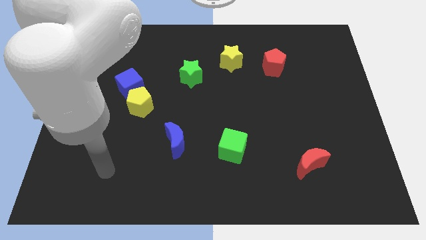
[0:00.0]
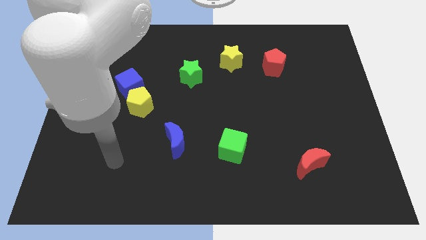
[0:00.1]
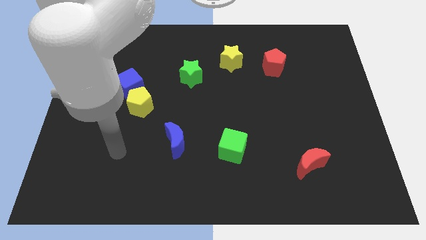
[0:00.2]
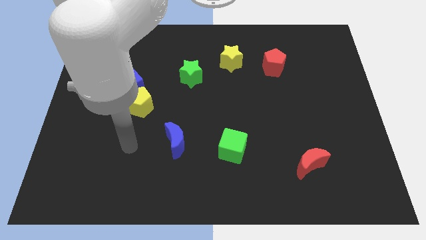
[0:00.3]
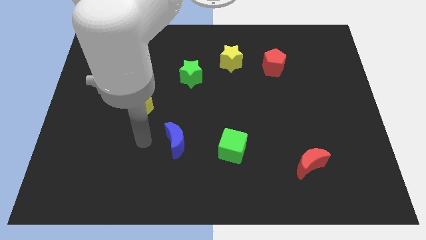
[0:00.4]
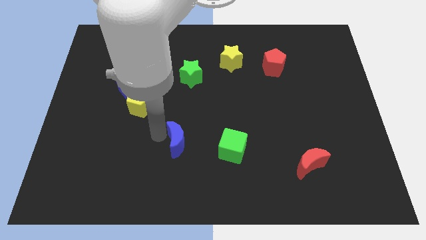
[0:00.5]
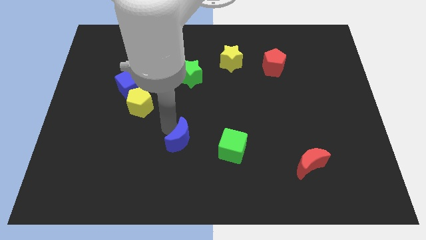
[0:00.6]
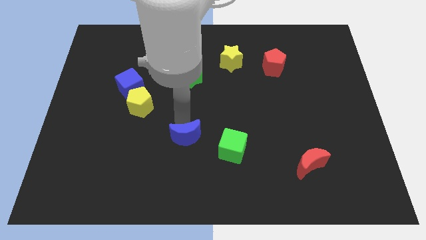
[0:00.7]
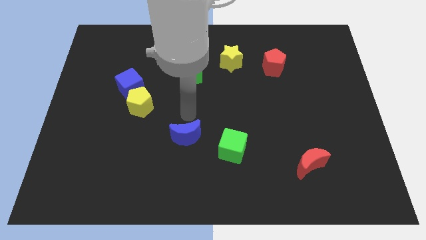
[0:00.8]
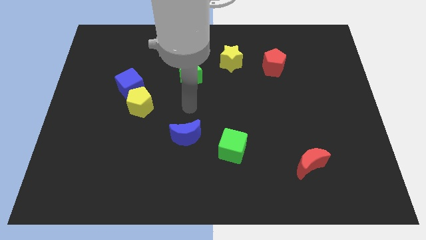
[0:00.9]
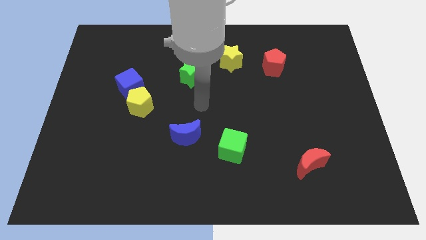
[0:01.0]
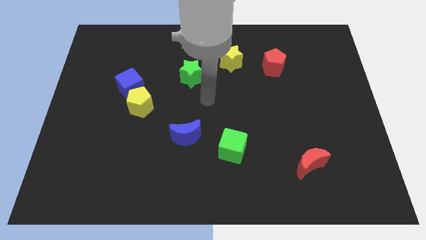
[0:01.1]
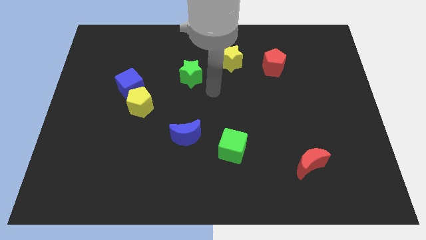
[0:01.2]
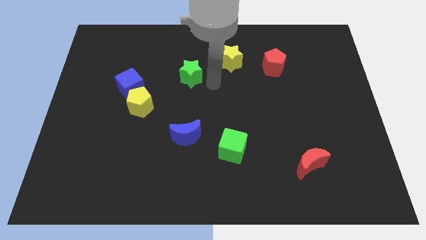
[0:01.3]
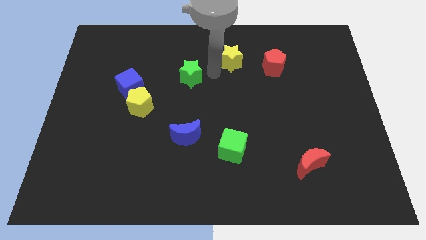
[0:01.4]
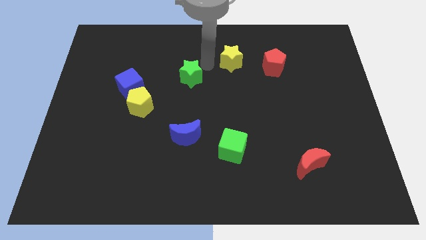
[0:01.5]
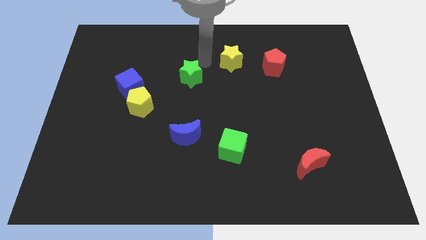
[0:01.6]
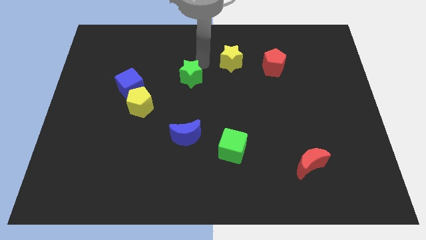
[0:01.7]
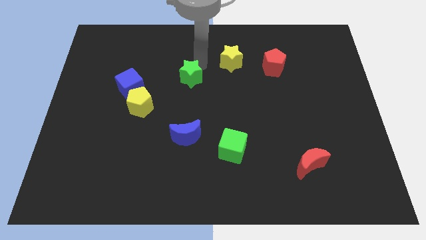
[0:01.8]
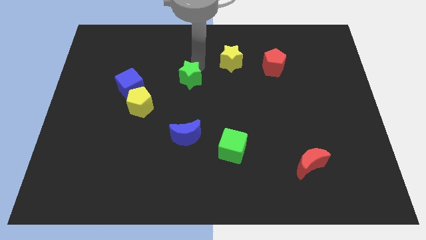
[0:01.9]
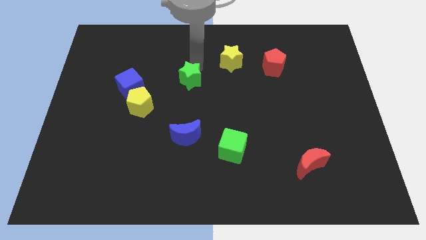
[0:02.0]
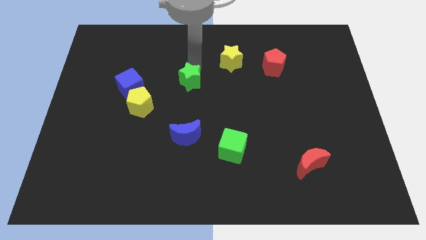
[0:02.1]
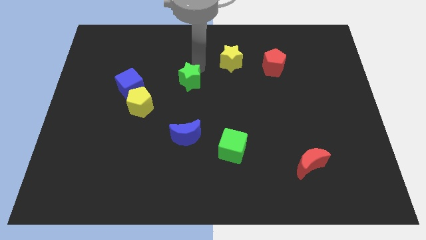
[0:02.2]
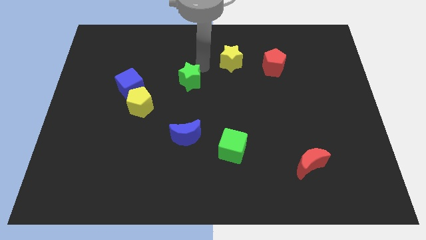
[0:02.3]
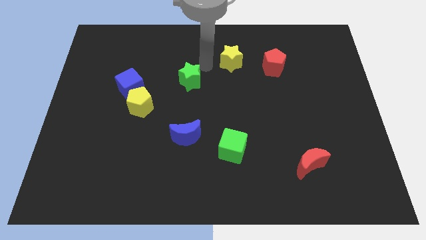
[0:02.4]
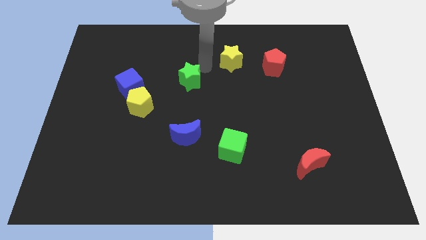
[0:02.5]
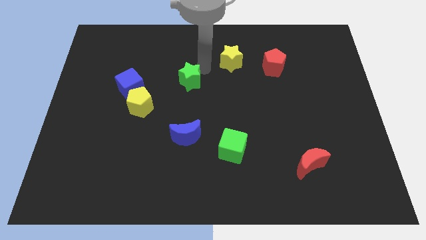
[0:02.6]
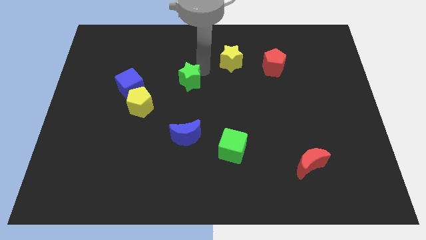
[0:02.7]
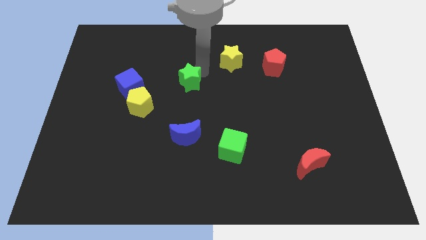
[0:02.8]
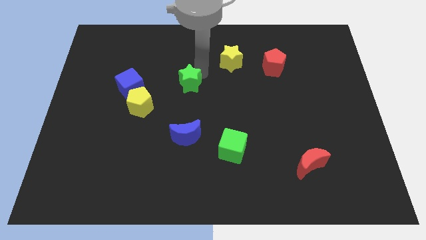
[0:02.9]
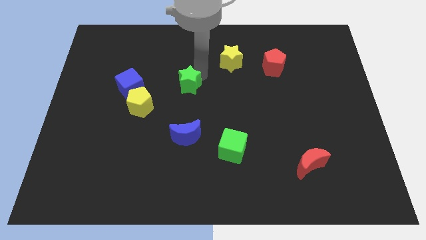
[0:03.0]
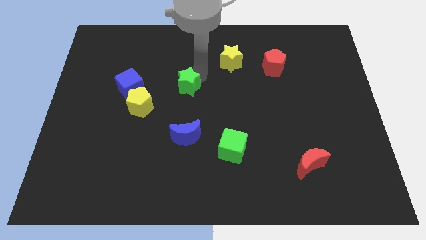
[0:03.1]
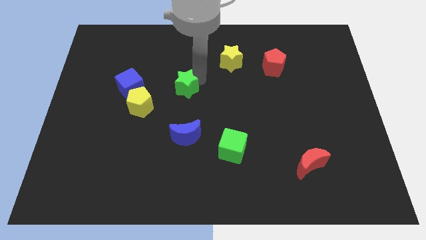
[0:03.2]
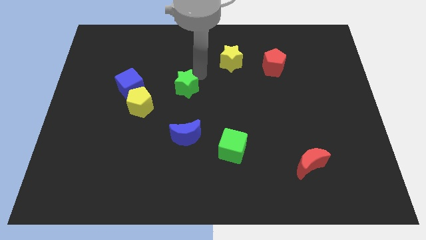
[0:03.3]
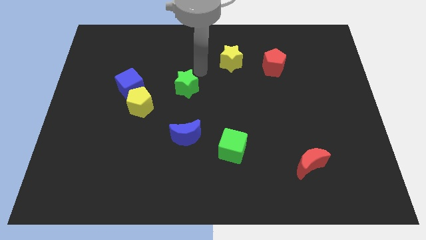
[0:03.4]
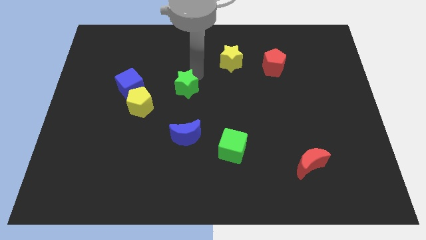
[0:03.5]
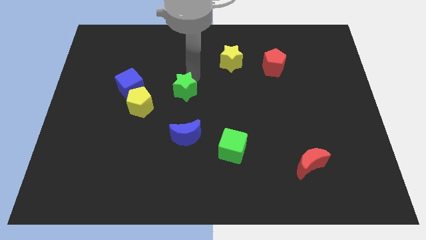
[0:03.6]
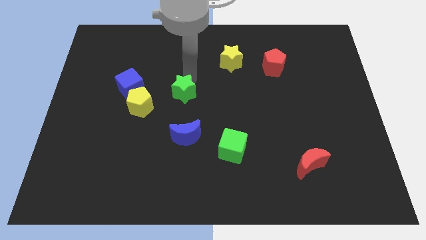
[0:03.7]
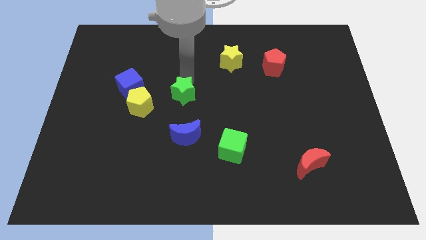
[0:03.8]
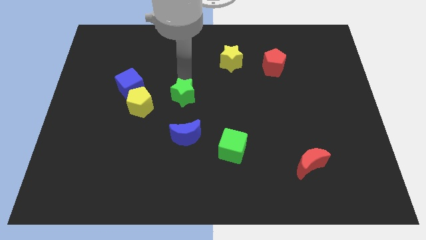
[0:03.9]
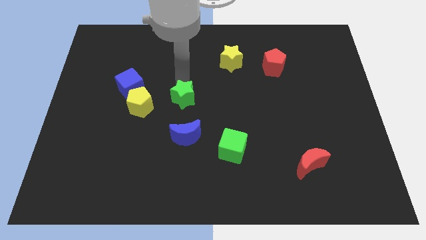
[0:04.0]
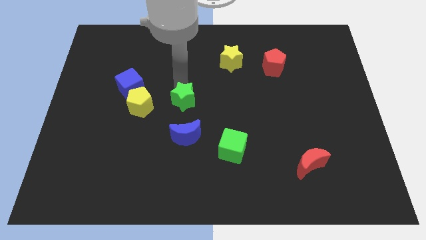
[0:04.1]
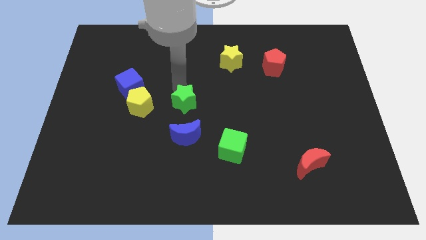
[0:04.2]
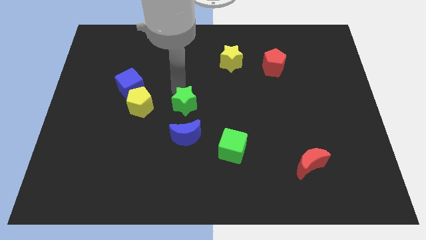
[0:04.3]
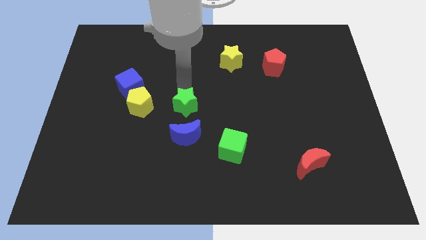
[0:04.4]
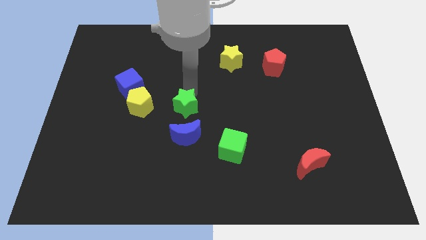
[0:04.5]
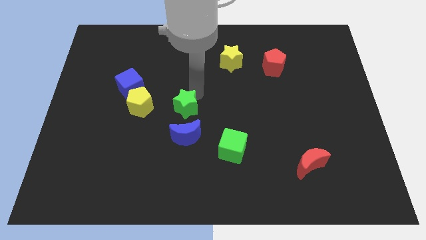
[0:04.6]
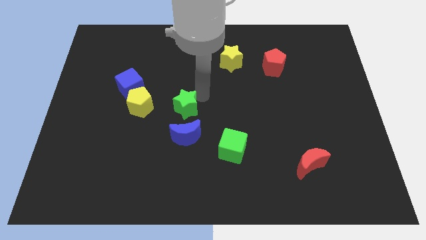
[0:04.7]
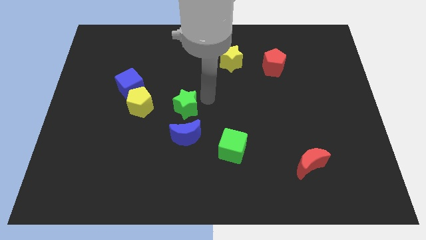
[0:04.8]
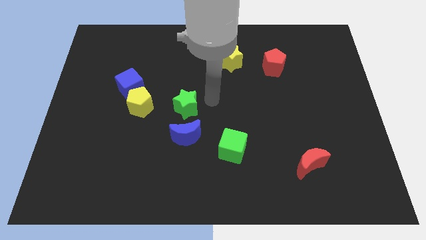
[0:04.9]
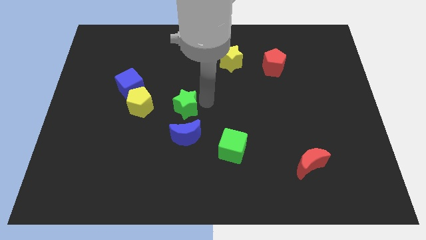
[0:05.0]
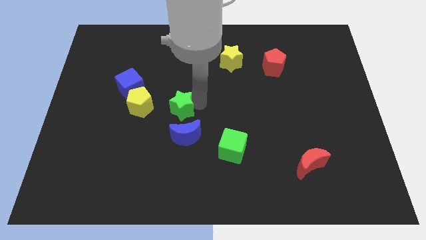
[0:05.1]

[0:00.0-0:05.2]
move the green star to the top left side of the blue moon

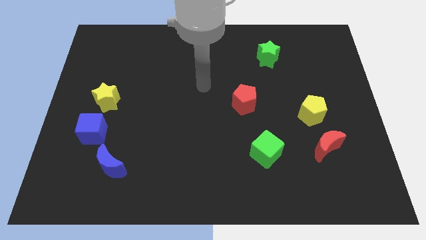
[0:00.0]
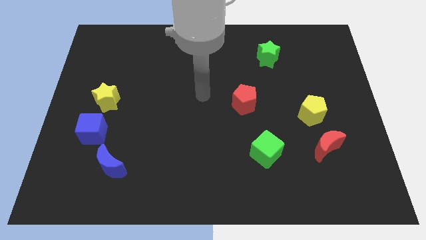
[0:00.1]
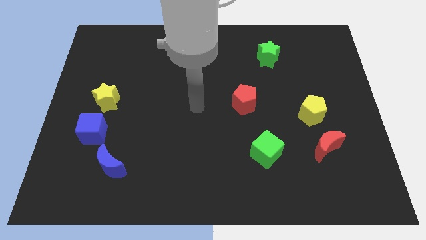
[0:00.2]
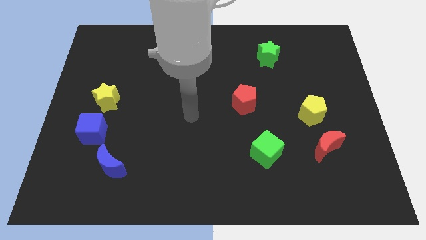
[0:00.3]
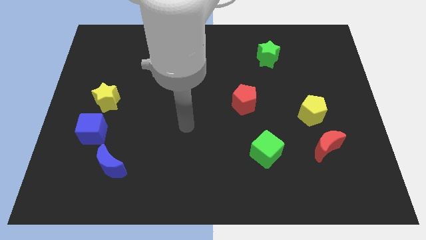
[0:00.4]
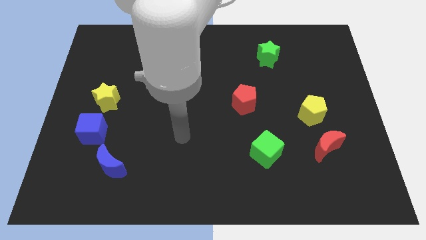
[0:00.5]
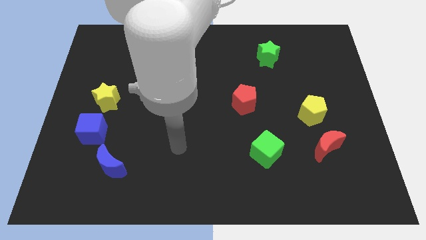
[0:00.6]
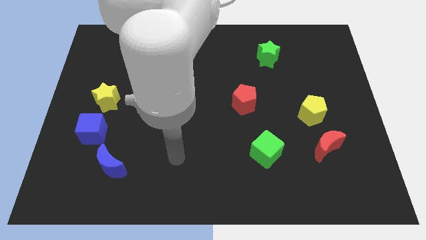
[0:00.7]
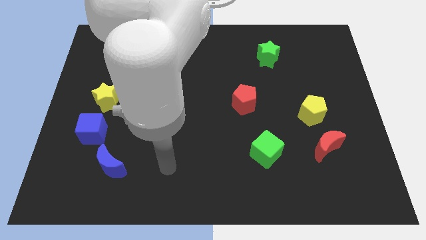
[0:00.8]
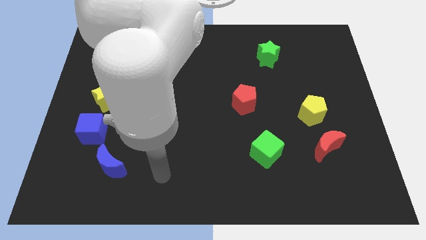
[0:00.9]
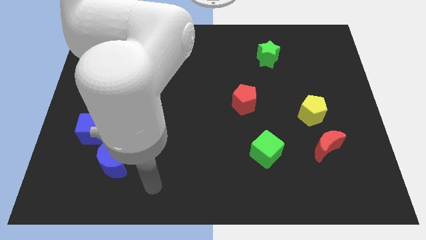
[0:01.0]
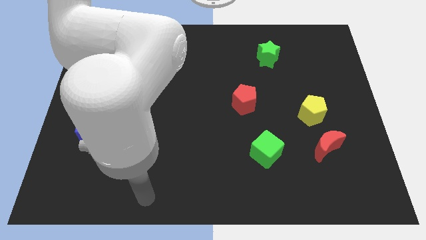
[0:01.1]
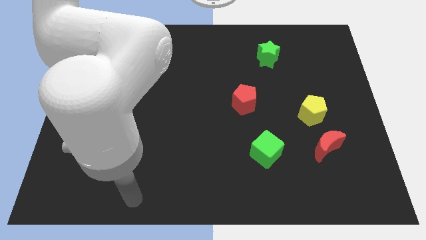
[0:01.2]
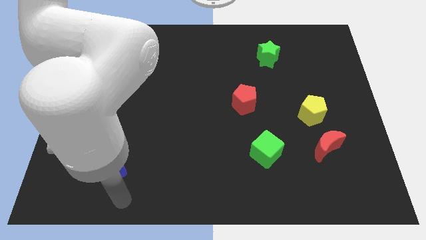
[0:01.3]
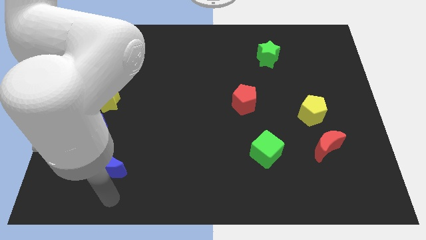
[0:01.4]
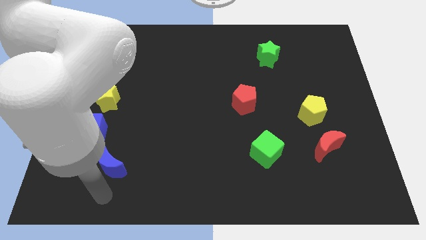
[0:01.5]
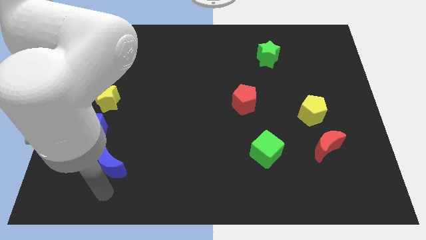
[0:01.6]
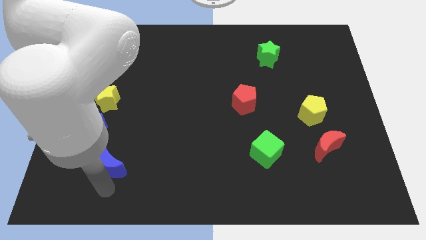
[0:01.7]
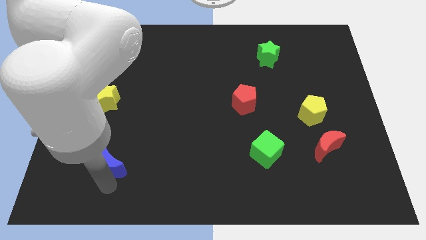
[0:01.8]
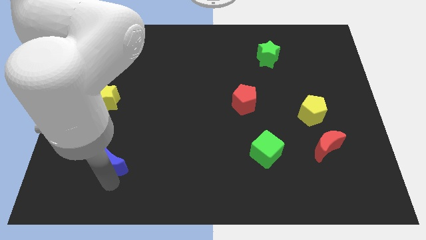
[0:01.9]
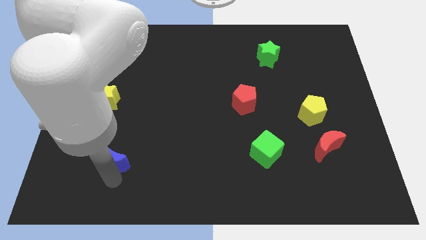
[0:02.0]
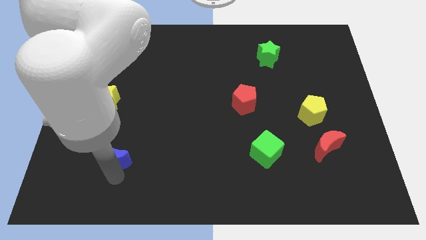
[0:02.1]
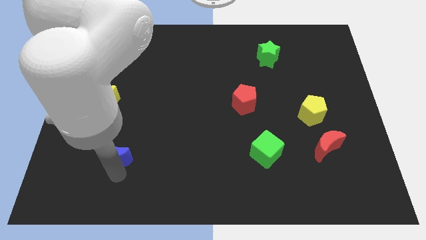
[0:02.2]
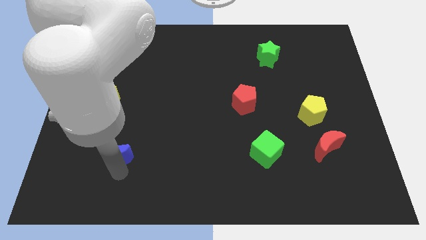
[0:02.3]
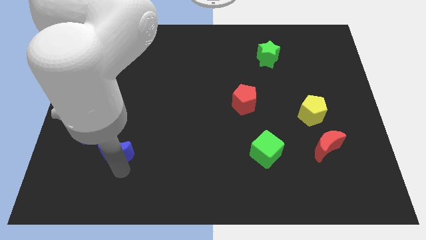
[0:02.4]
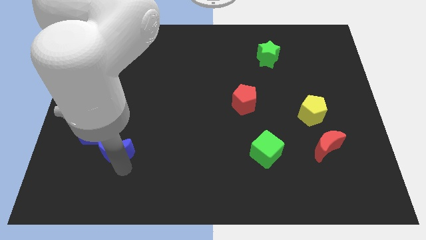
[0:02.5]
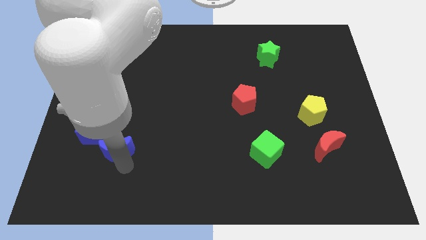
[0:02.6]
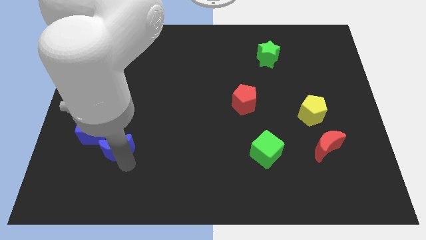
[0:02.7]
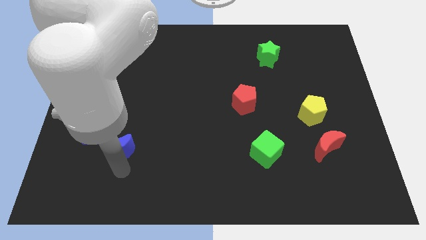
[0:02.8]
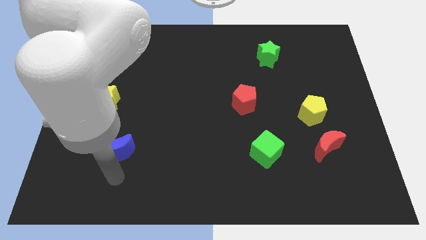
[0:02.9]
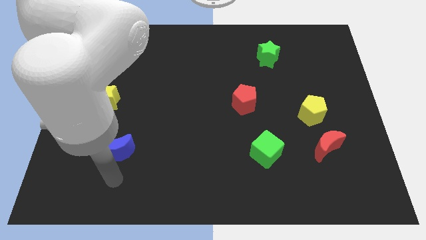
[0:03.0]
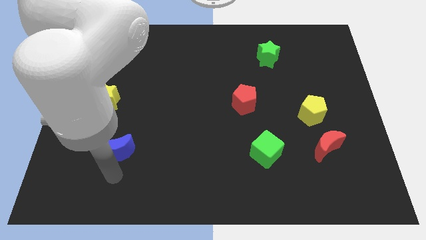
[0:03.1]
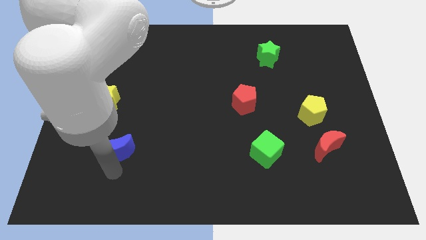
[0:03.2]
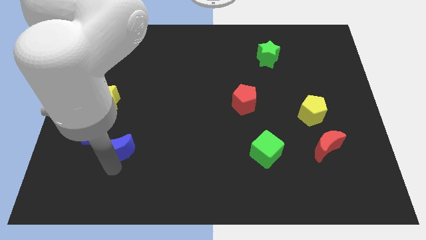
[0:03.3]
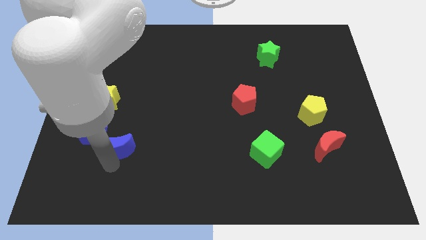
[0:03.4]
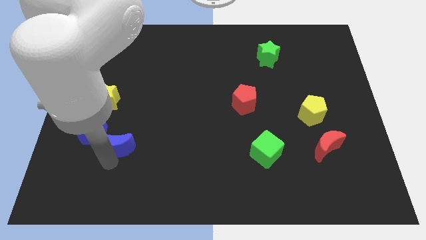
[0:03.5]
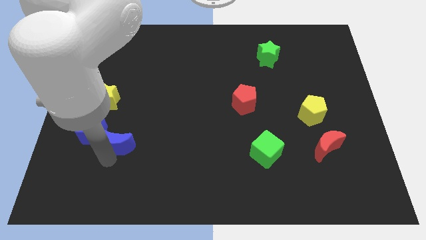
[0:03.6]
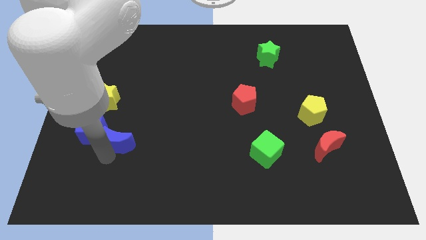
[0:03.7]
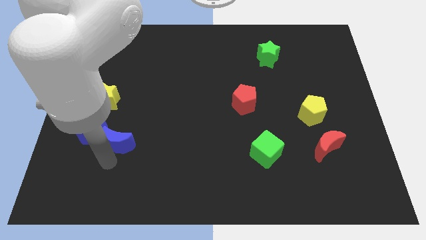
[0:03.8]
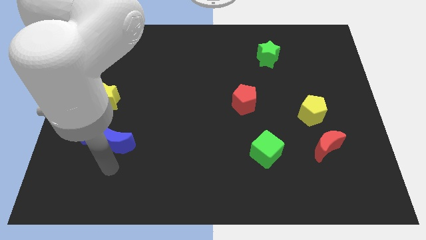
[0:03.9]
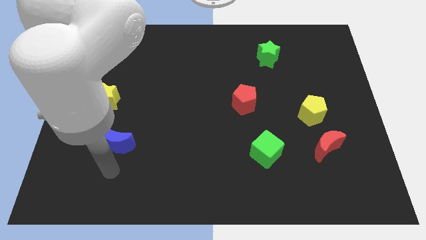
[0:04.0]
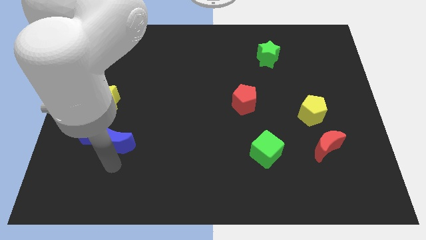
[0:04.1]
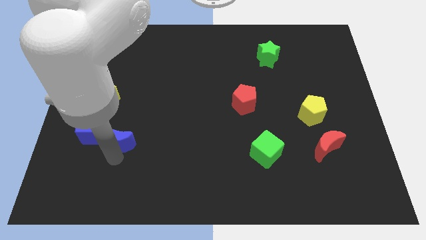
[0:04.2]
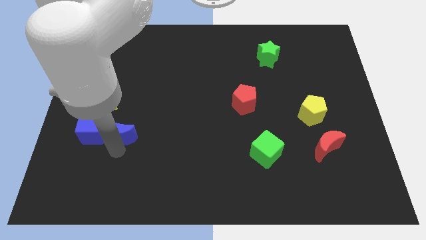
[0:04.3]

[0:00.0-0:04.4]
put the blue moon to the bottom right of the yellow star
